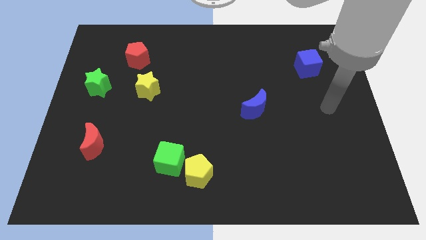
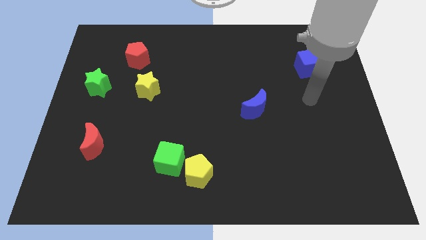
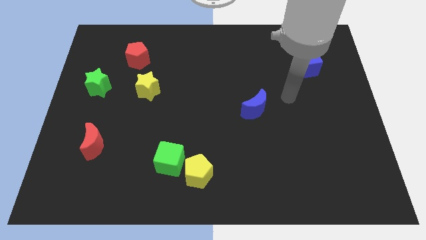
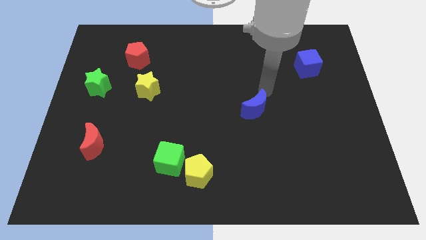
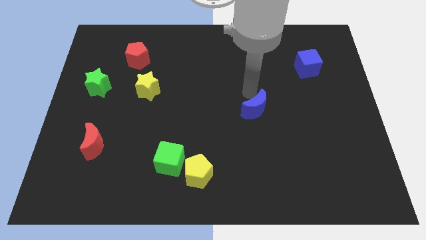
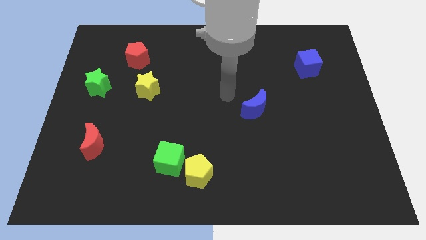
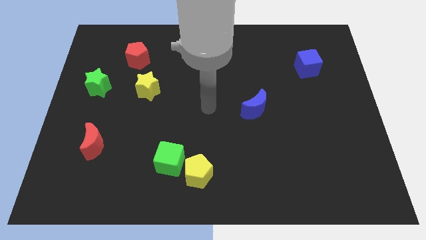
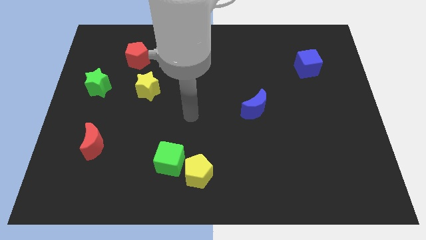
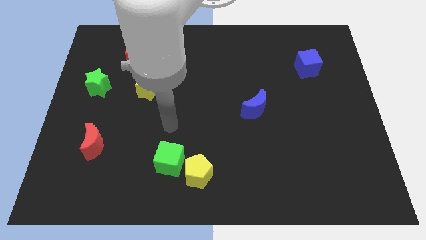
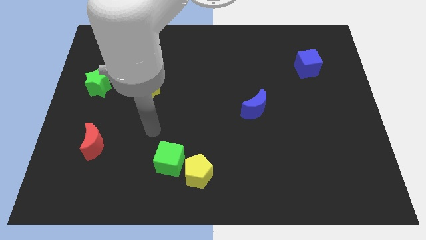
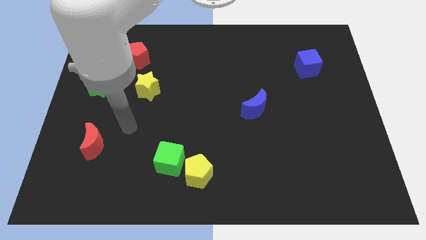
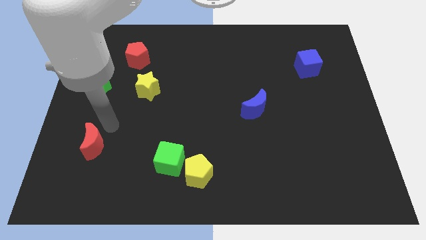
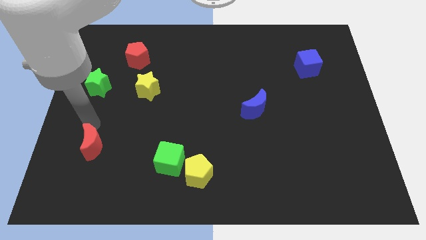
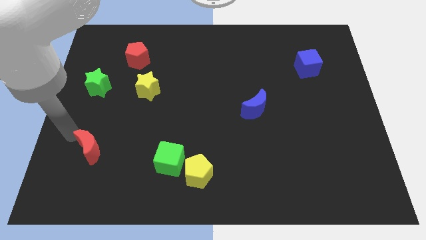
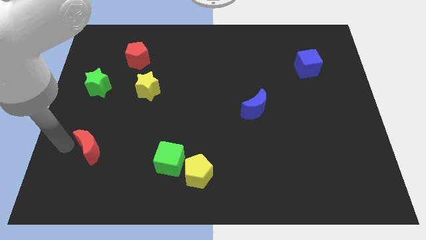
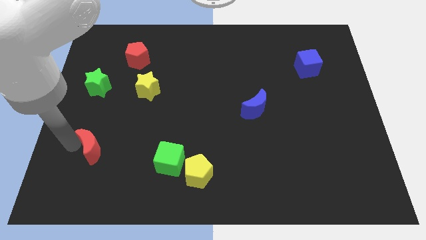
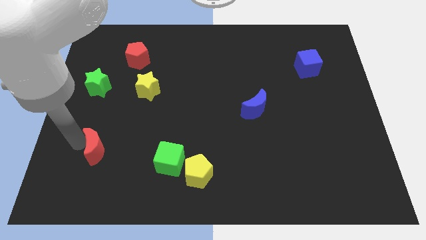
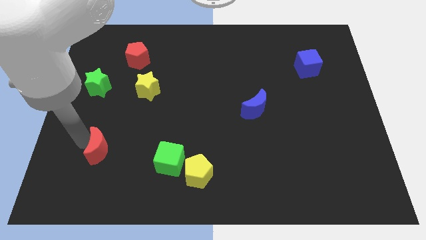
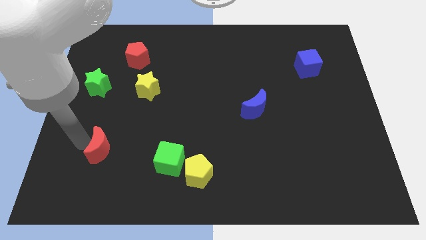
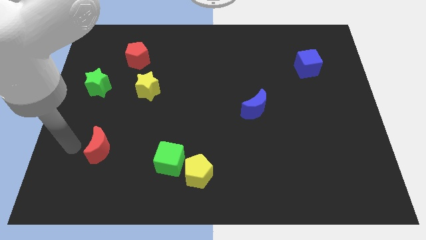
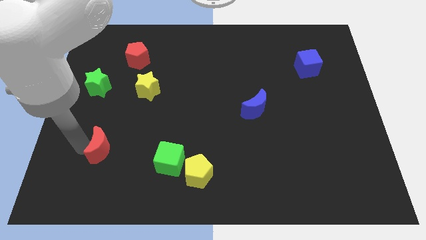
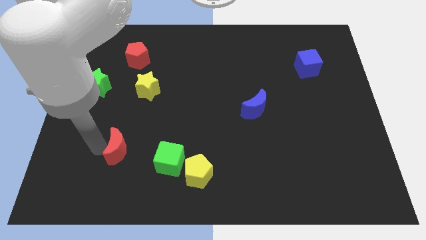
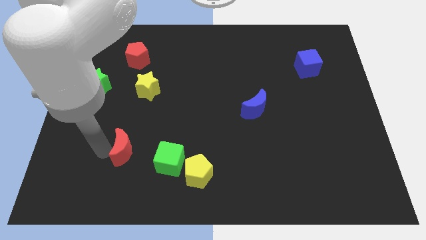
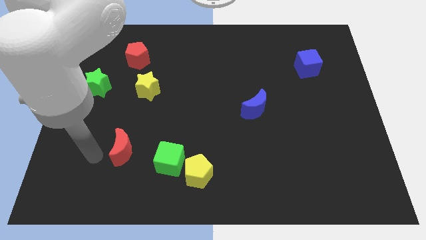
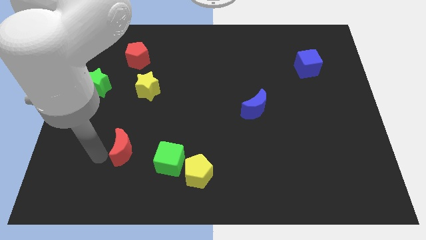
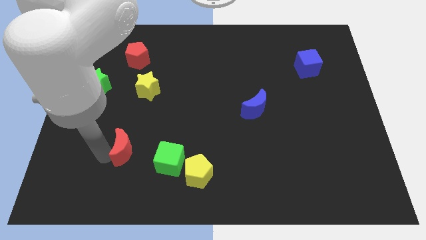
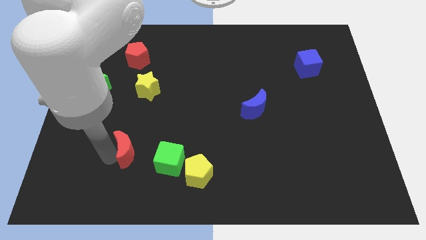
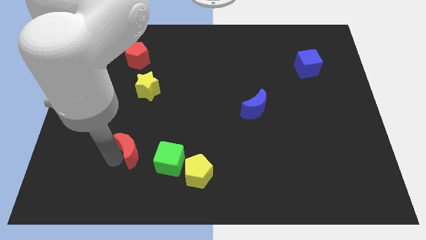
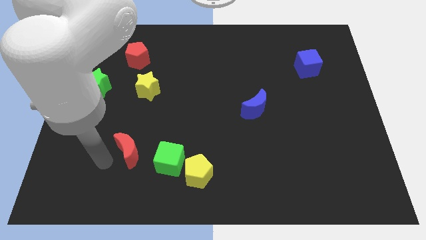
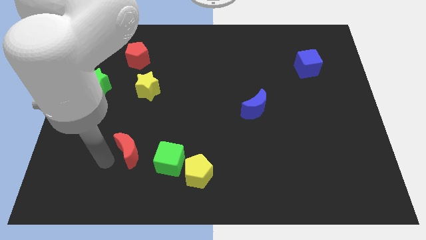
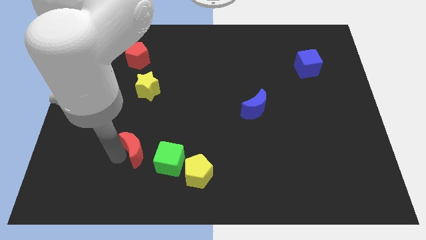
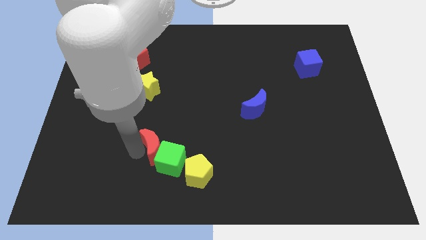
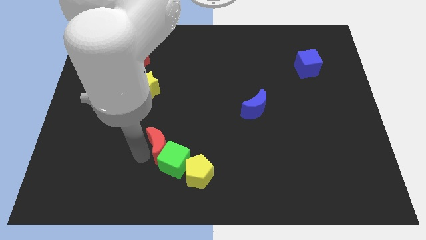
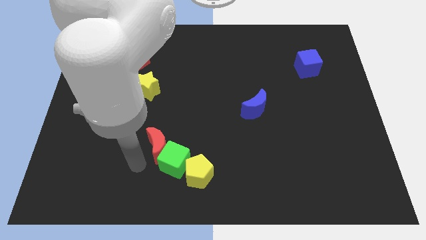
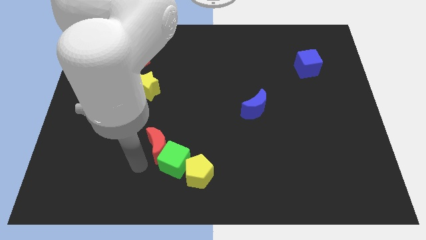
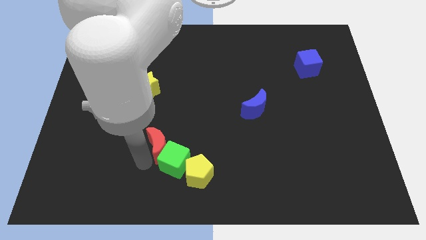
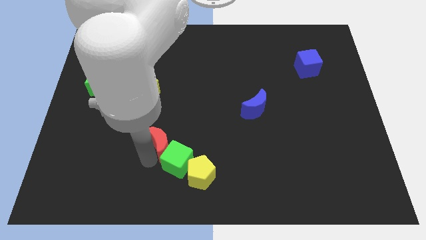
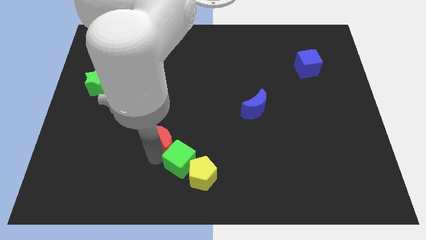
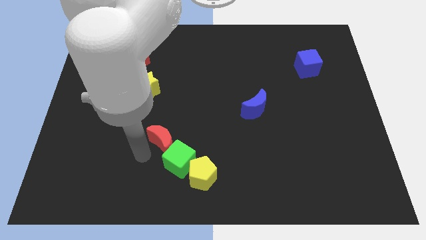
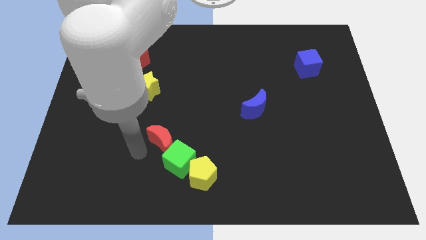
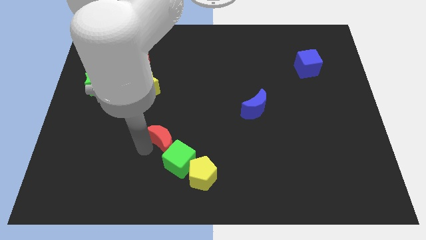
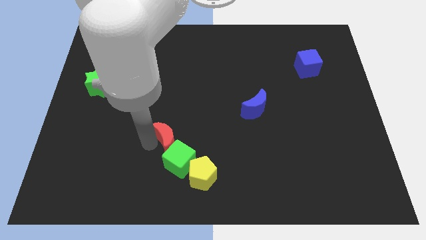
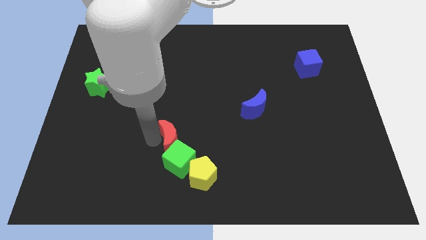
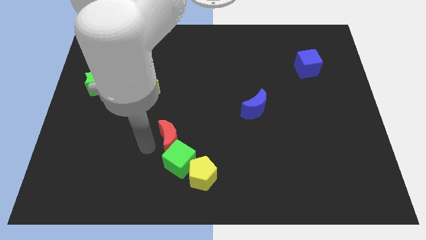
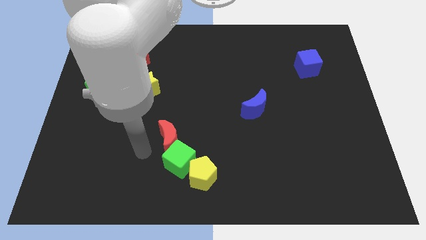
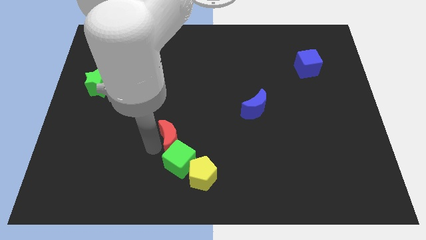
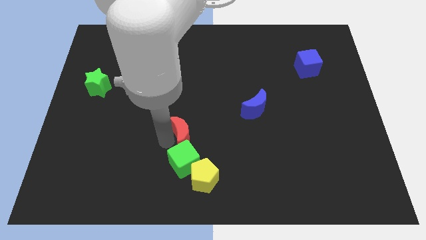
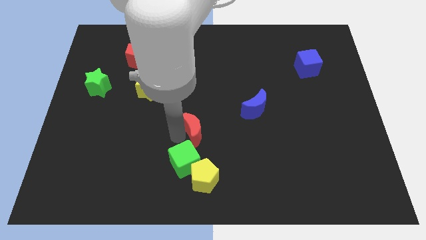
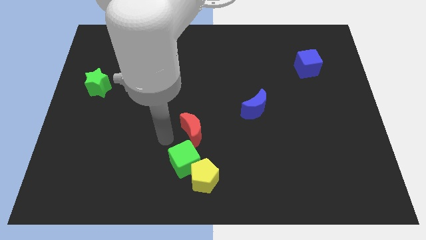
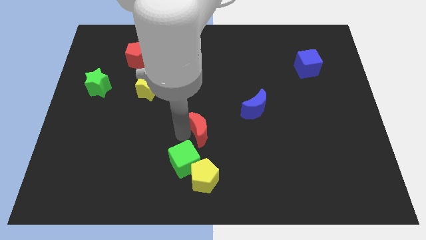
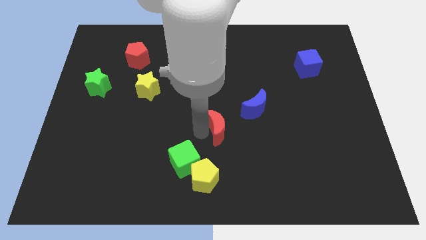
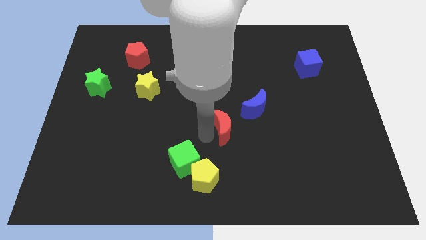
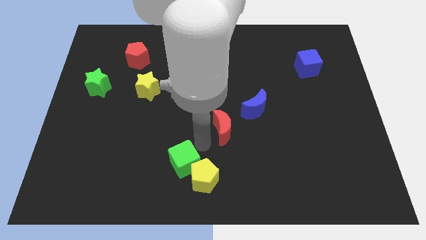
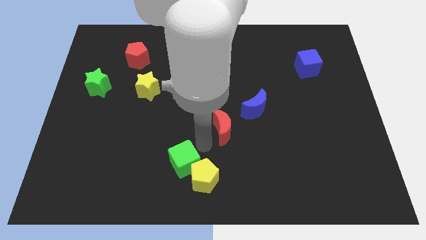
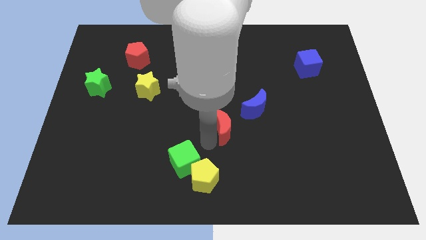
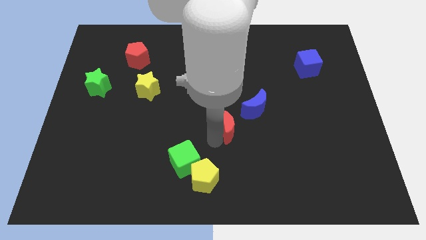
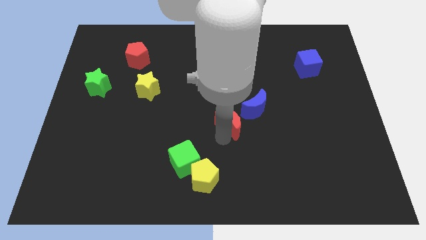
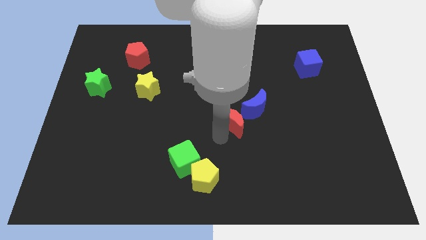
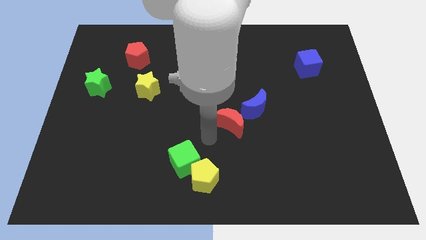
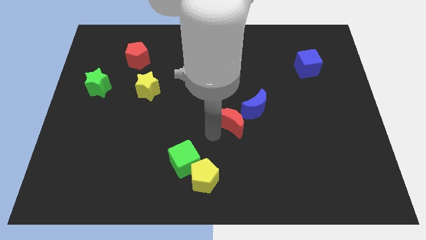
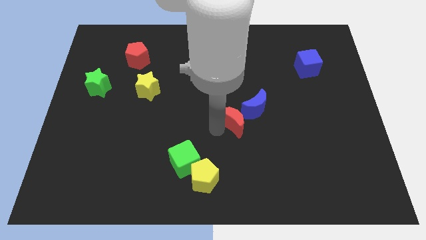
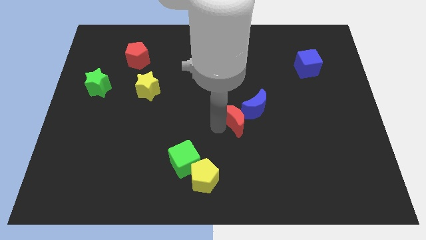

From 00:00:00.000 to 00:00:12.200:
slide the red moon towards the blue moon
